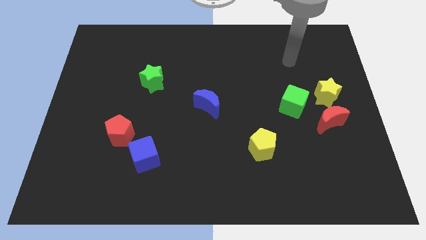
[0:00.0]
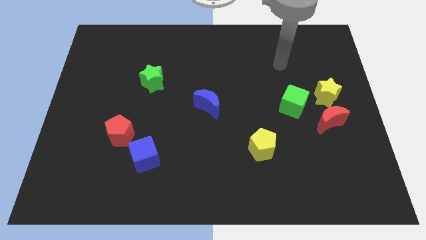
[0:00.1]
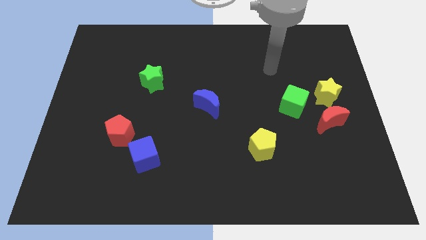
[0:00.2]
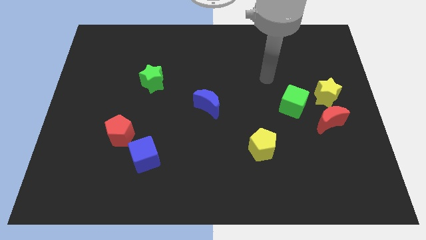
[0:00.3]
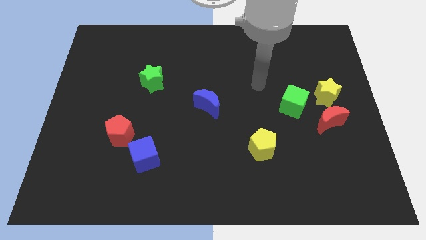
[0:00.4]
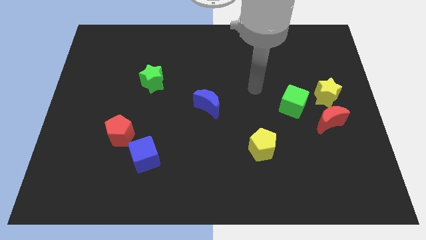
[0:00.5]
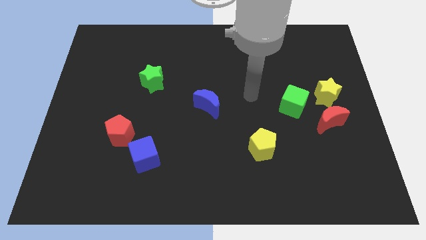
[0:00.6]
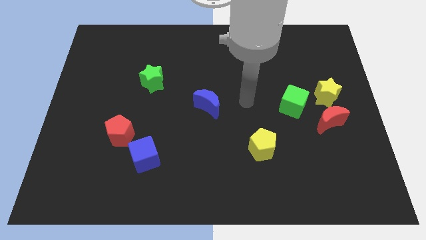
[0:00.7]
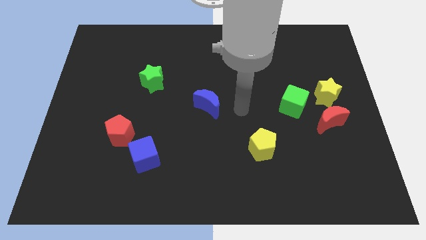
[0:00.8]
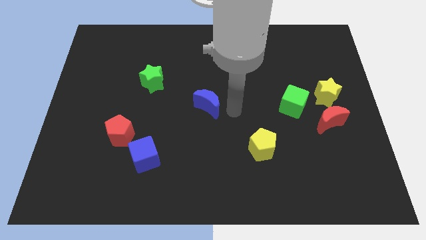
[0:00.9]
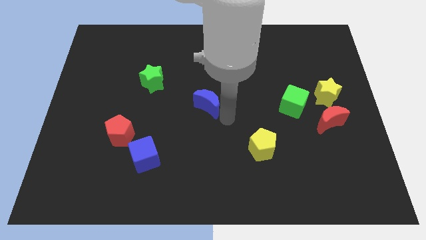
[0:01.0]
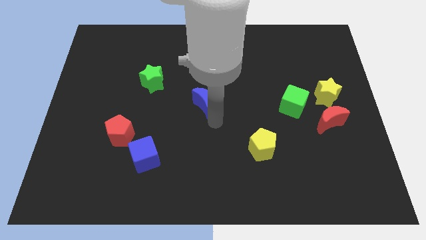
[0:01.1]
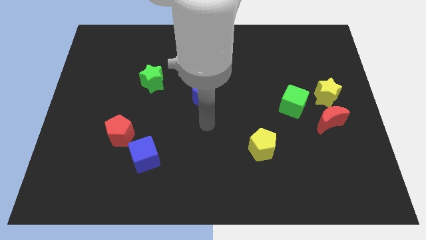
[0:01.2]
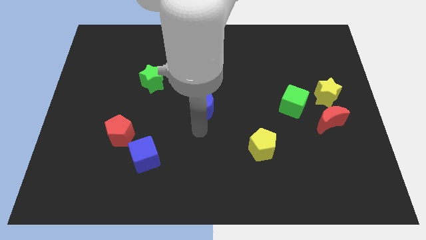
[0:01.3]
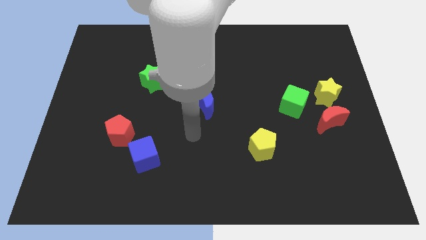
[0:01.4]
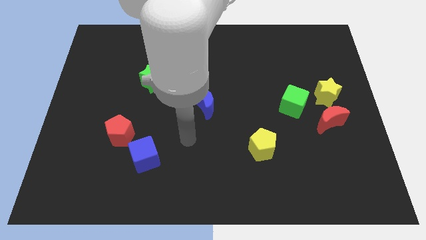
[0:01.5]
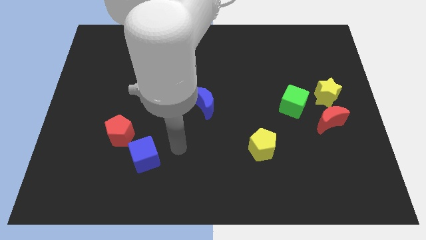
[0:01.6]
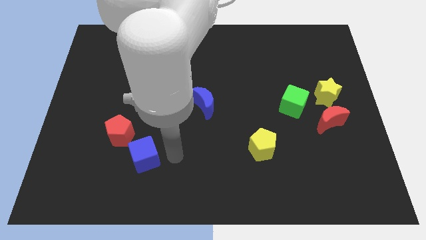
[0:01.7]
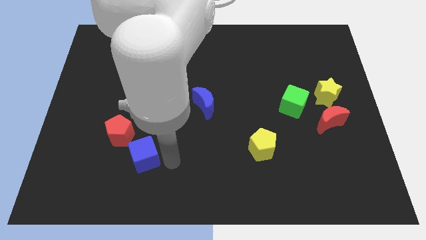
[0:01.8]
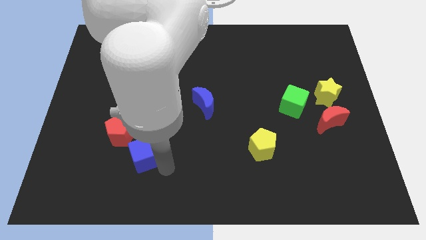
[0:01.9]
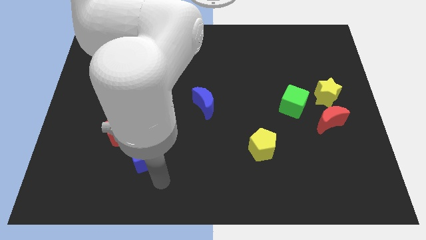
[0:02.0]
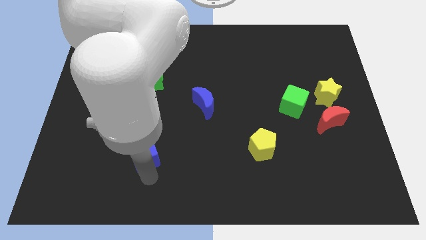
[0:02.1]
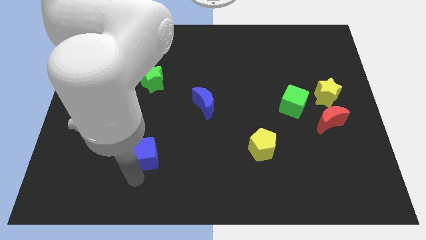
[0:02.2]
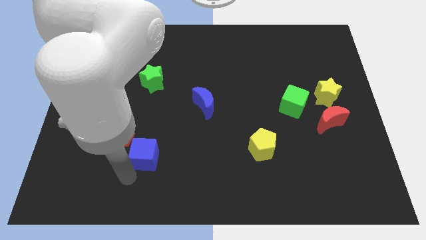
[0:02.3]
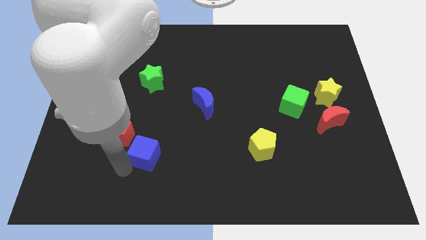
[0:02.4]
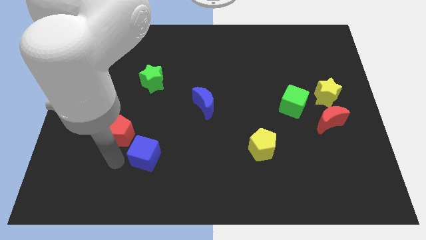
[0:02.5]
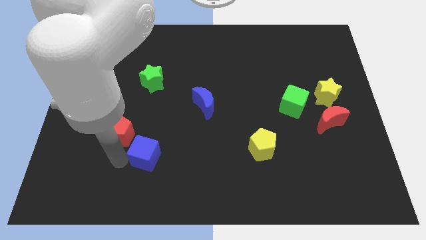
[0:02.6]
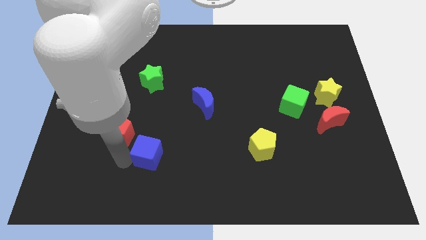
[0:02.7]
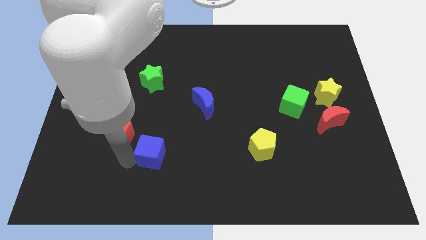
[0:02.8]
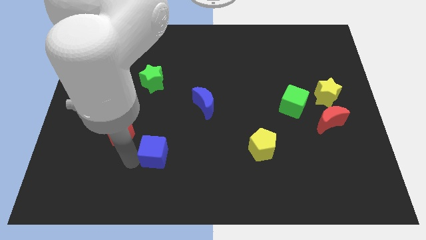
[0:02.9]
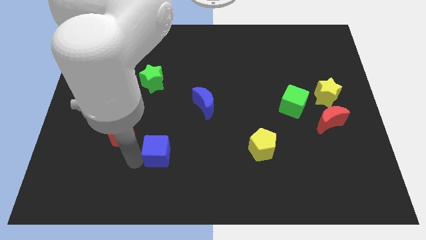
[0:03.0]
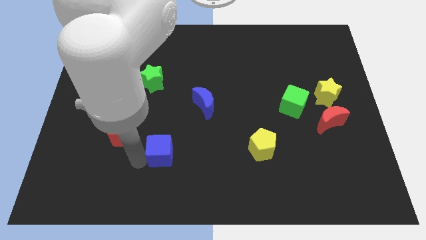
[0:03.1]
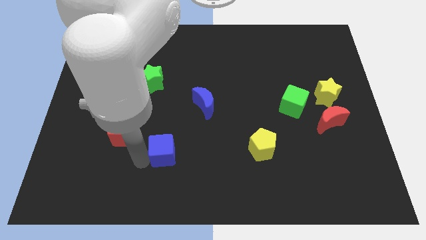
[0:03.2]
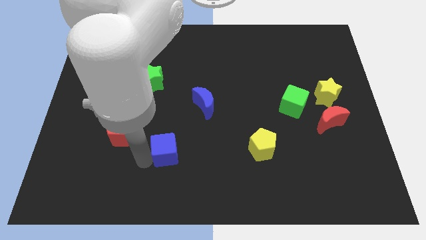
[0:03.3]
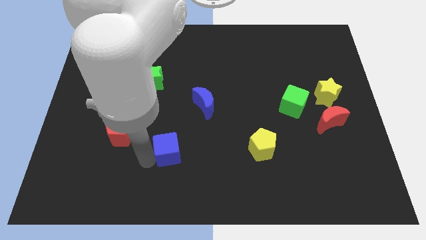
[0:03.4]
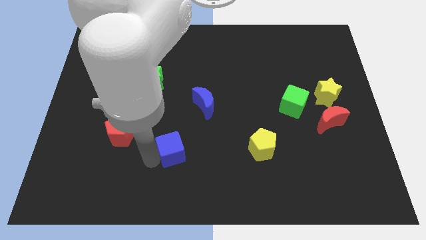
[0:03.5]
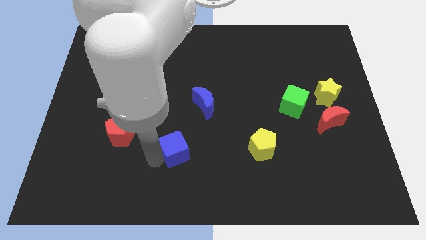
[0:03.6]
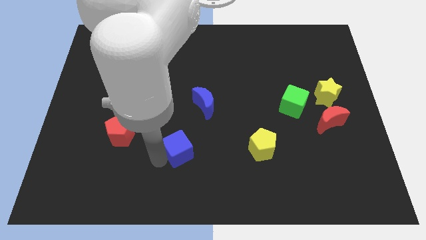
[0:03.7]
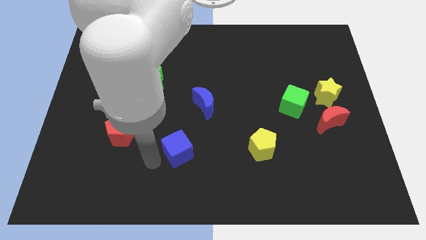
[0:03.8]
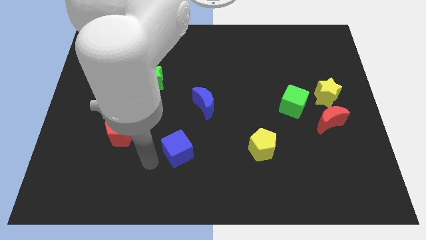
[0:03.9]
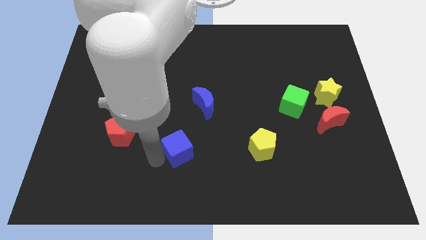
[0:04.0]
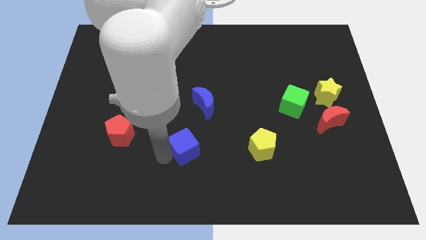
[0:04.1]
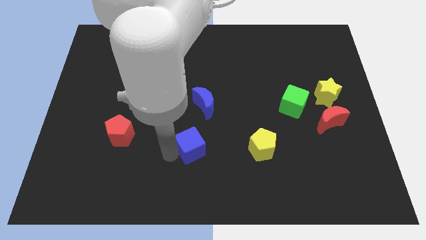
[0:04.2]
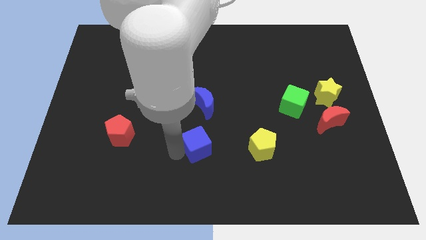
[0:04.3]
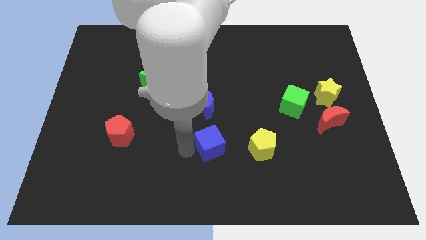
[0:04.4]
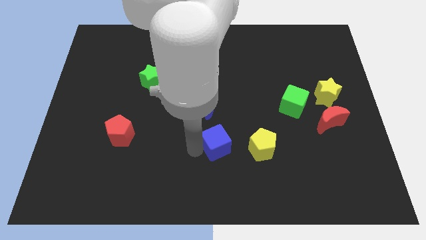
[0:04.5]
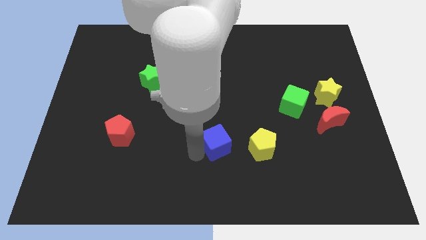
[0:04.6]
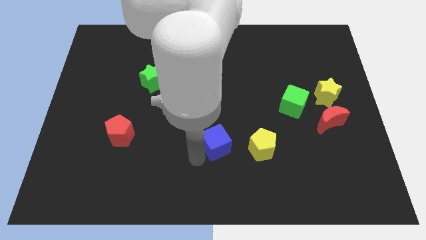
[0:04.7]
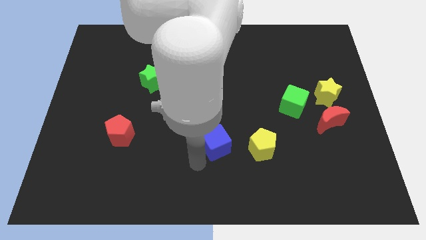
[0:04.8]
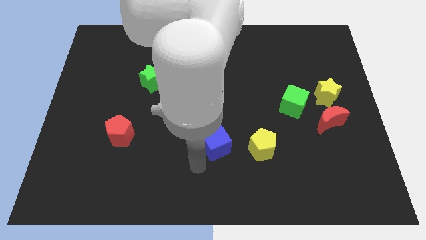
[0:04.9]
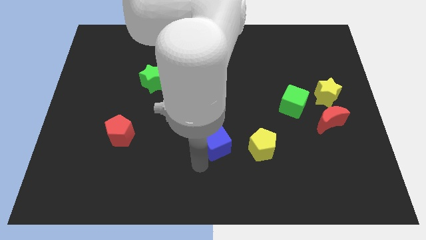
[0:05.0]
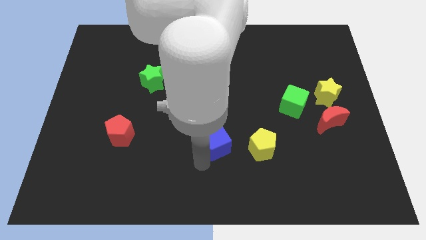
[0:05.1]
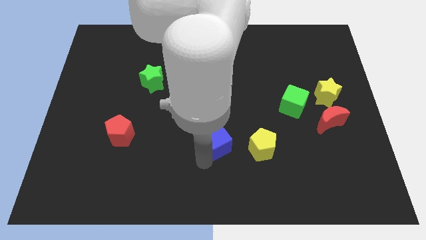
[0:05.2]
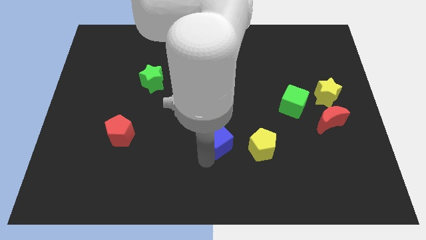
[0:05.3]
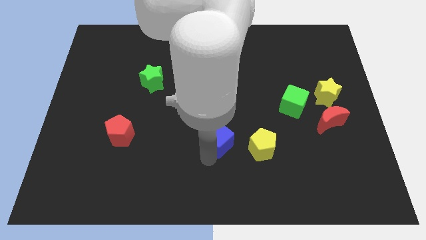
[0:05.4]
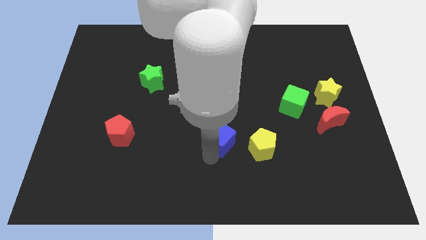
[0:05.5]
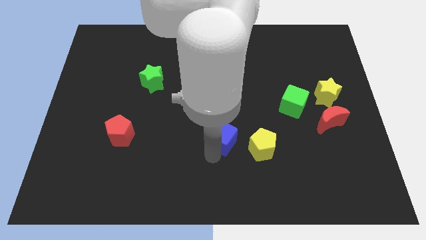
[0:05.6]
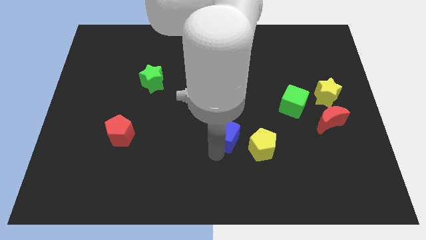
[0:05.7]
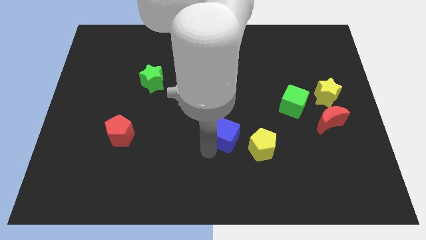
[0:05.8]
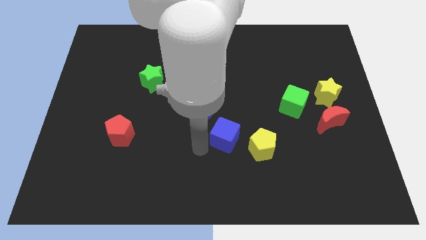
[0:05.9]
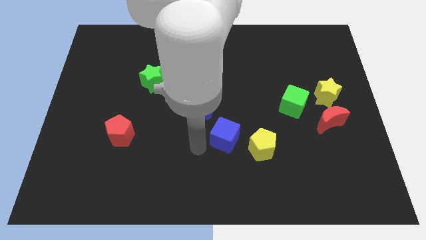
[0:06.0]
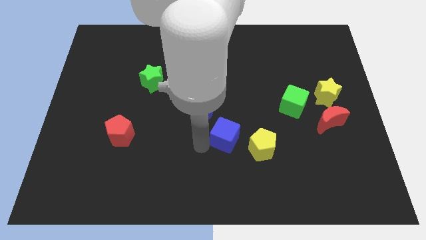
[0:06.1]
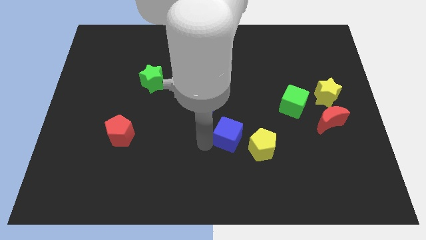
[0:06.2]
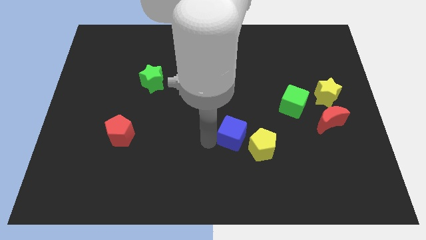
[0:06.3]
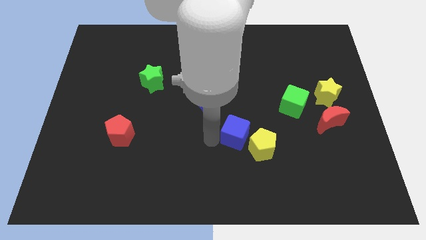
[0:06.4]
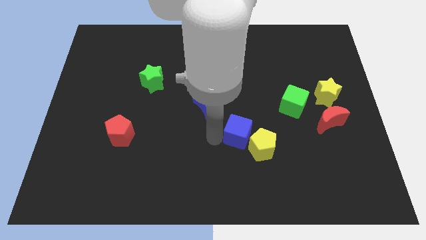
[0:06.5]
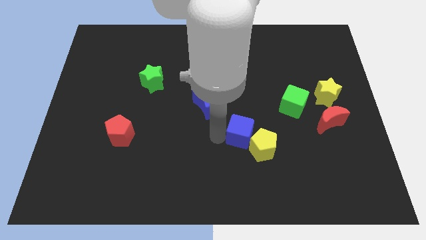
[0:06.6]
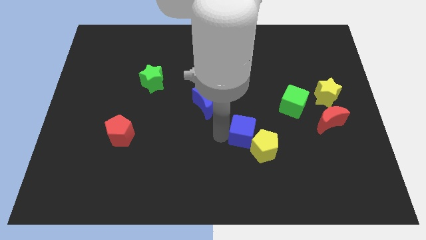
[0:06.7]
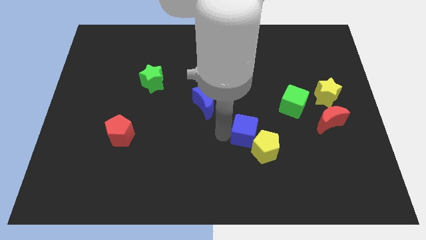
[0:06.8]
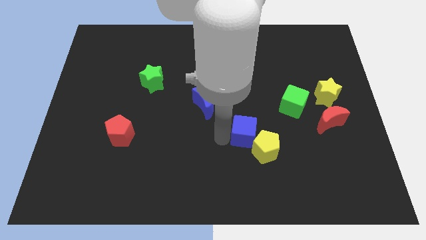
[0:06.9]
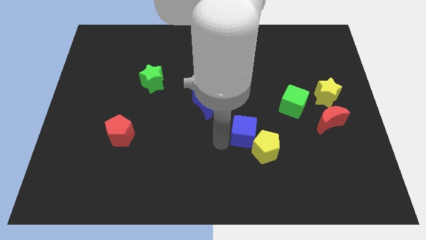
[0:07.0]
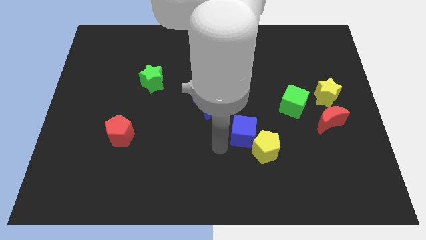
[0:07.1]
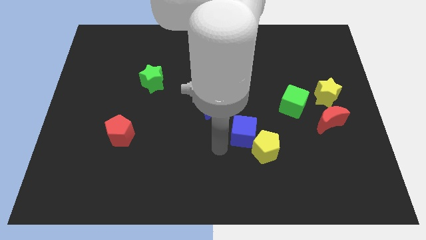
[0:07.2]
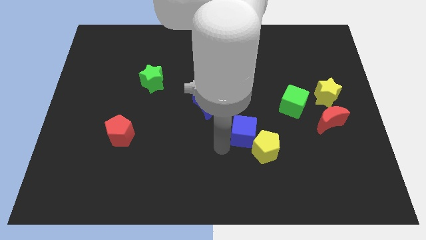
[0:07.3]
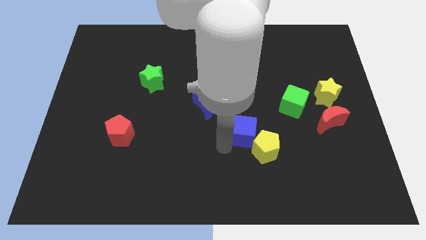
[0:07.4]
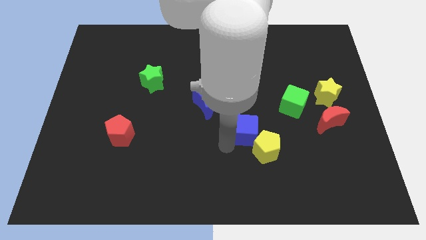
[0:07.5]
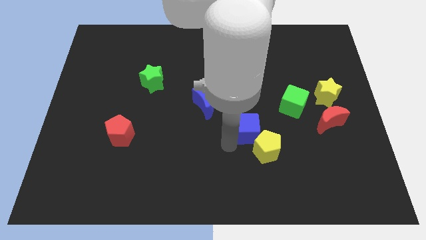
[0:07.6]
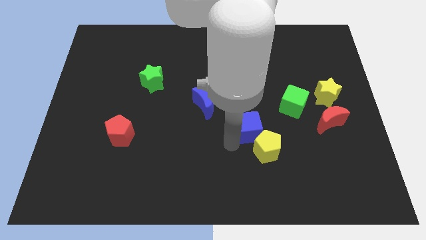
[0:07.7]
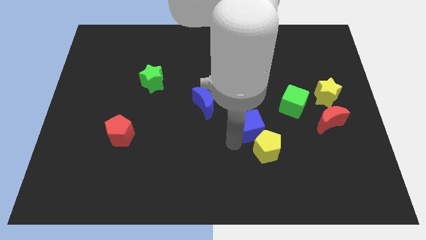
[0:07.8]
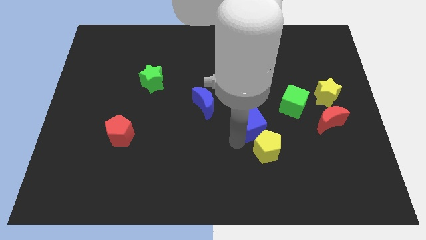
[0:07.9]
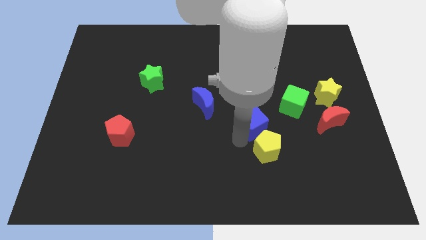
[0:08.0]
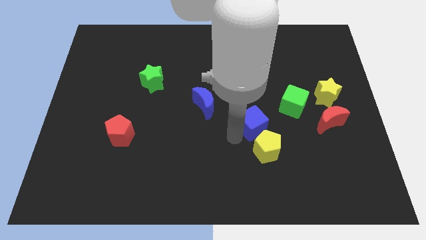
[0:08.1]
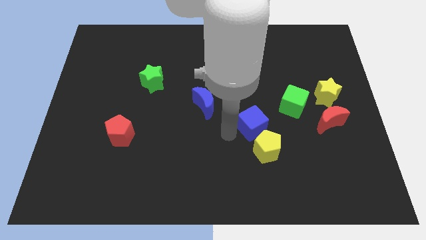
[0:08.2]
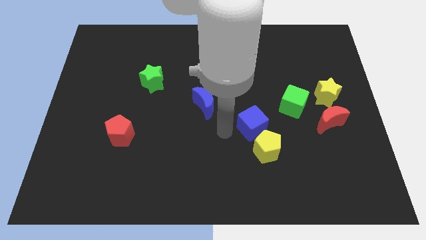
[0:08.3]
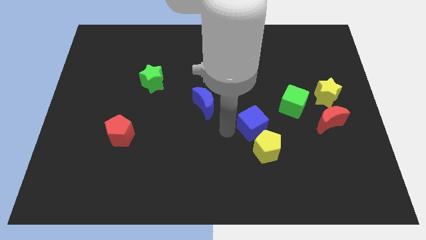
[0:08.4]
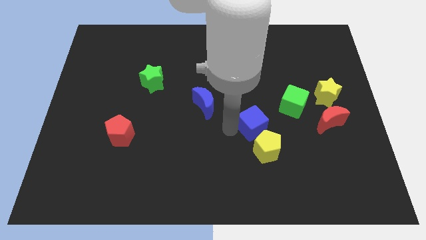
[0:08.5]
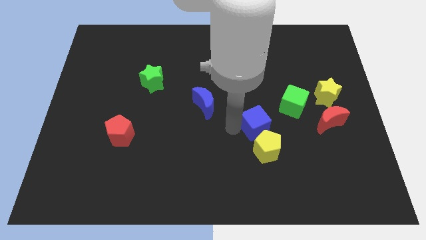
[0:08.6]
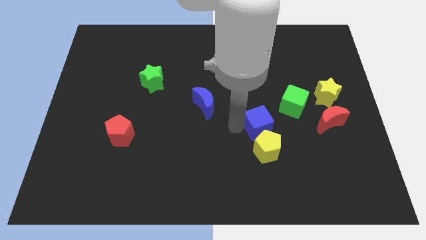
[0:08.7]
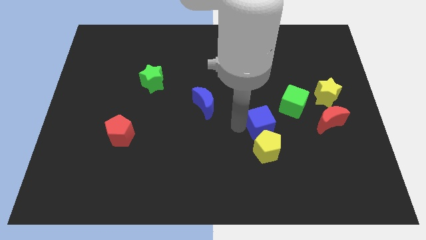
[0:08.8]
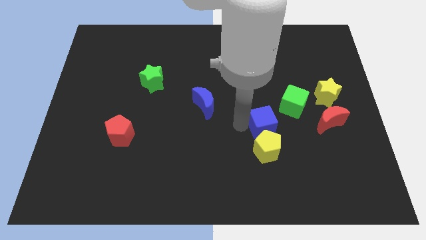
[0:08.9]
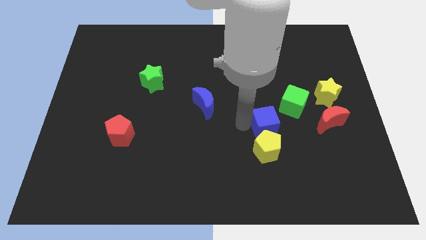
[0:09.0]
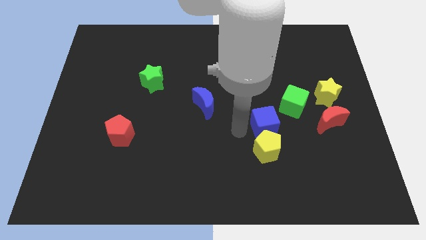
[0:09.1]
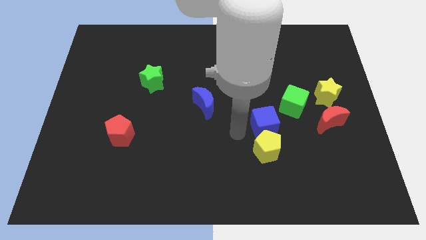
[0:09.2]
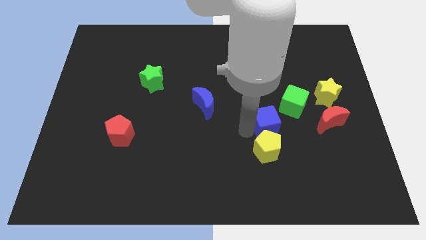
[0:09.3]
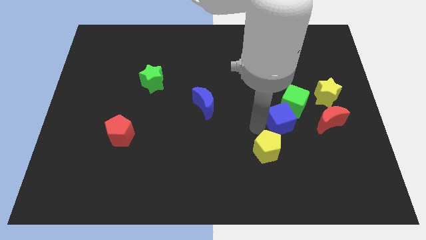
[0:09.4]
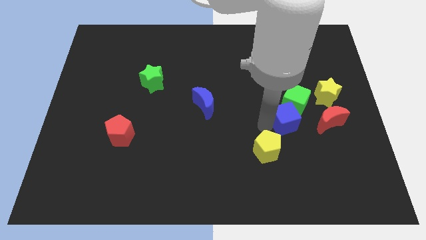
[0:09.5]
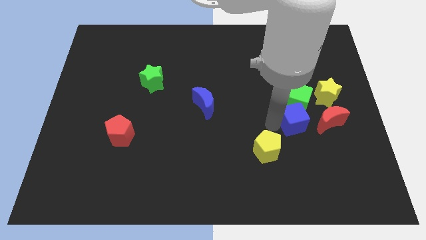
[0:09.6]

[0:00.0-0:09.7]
push the blue cube to the bottom left of the yellow star
